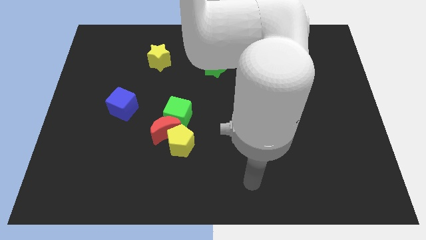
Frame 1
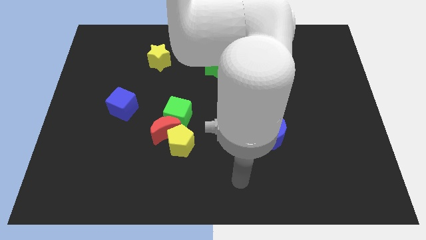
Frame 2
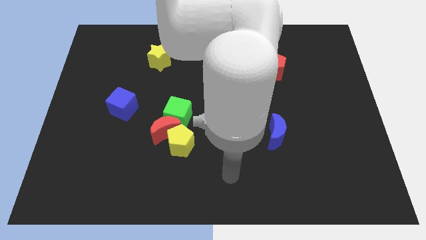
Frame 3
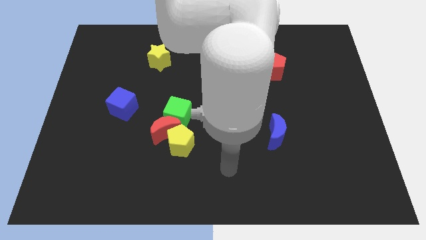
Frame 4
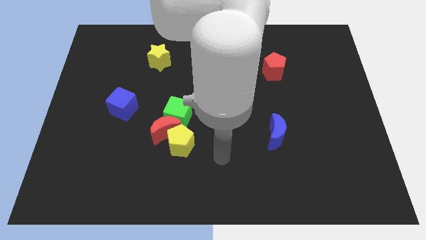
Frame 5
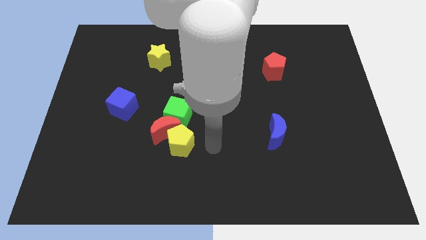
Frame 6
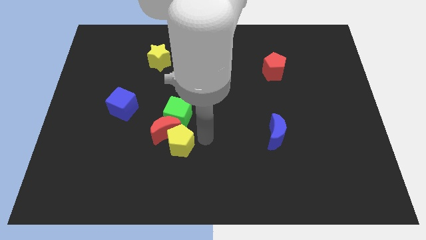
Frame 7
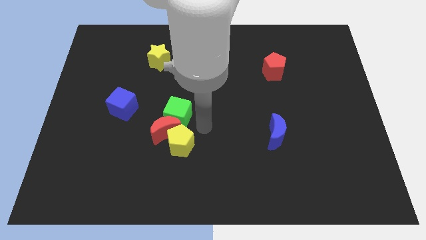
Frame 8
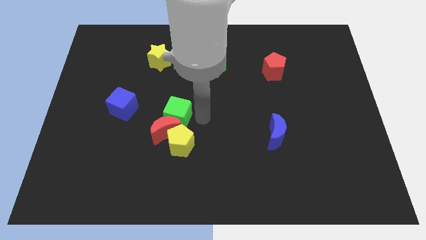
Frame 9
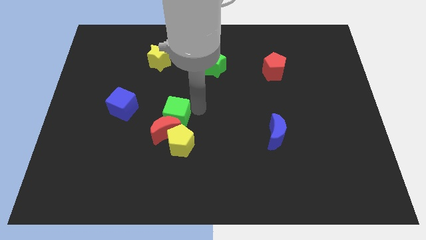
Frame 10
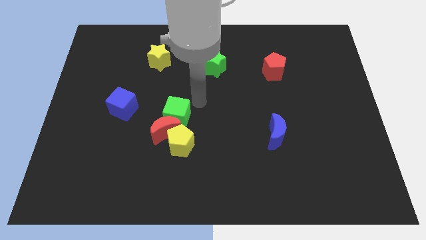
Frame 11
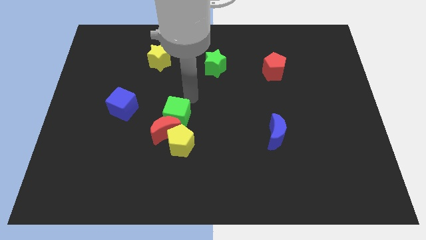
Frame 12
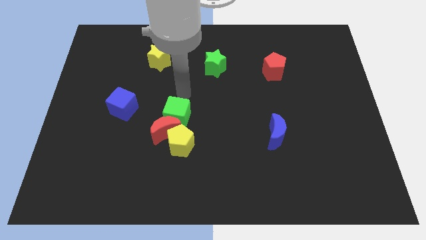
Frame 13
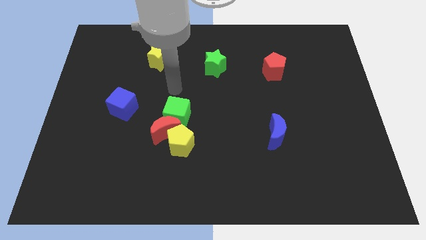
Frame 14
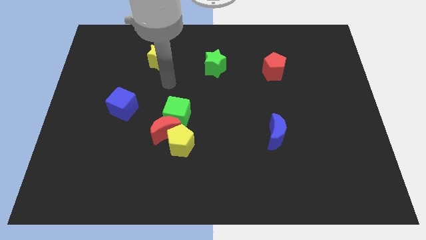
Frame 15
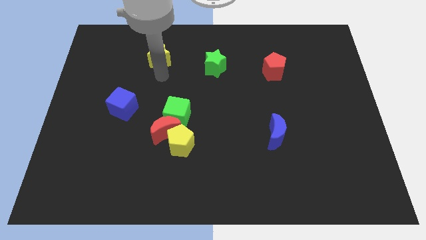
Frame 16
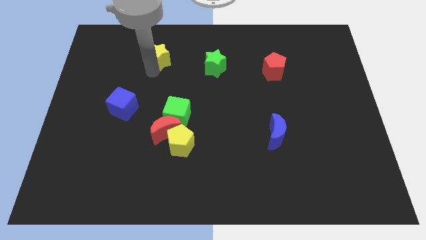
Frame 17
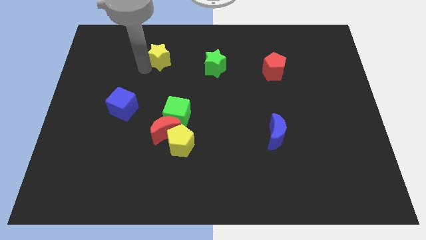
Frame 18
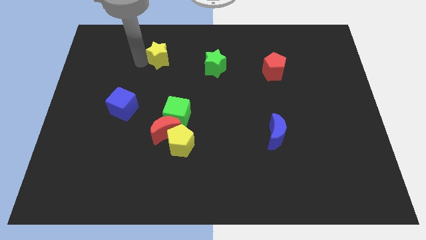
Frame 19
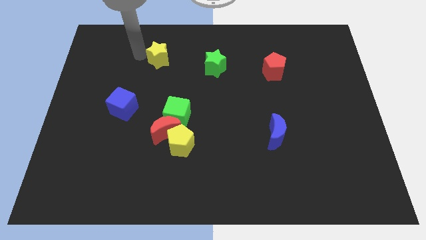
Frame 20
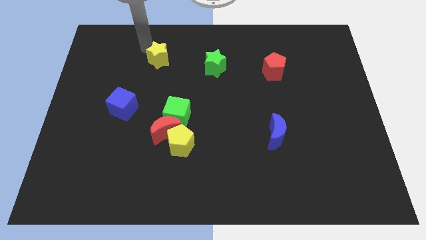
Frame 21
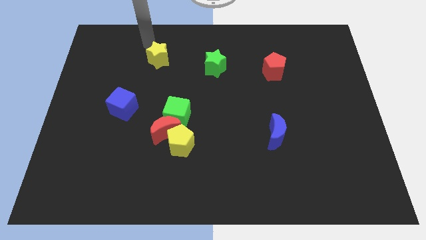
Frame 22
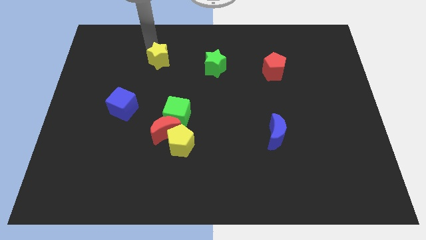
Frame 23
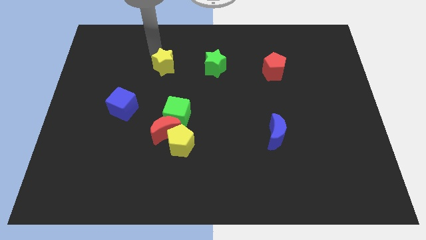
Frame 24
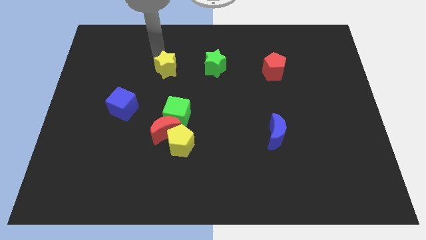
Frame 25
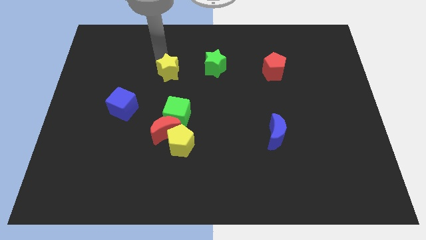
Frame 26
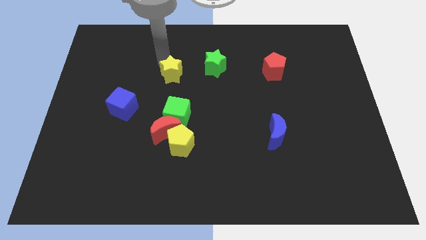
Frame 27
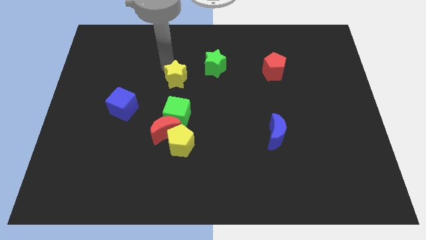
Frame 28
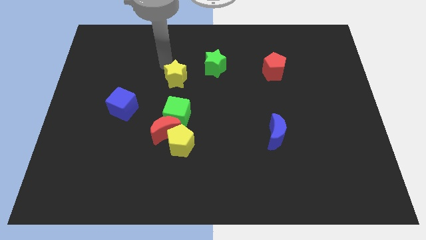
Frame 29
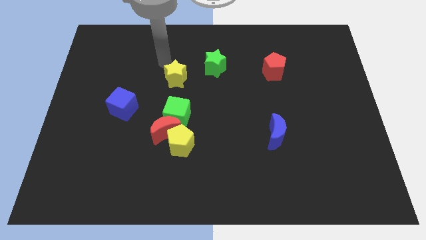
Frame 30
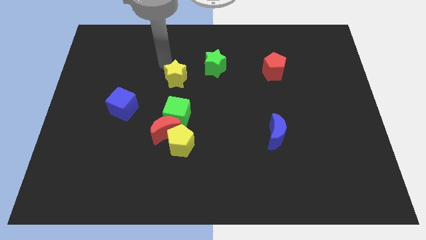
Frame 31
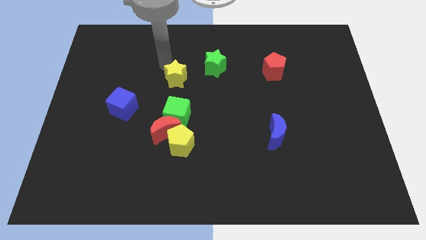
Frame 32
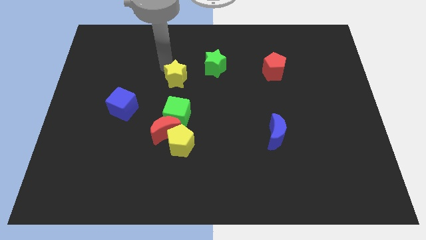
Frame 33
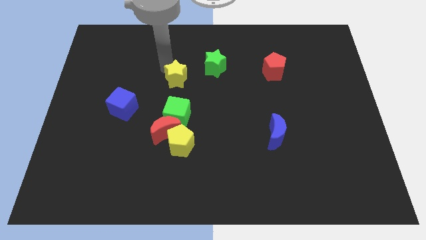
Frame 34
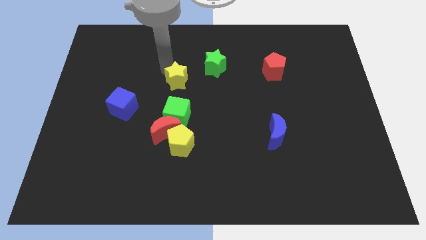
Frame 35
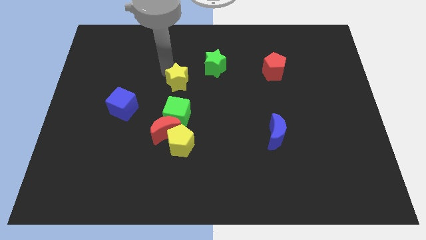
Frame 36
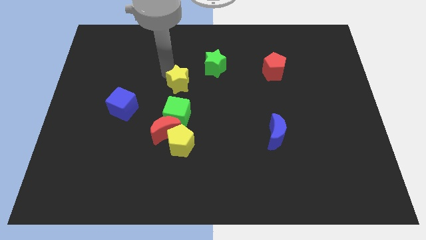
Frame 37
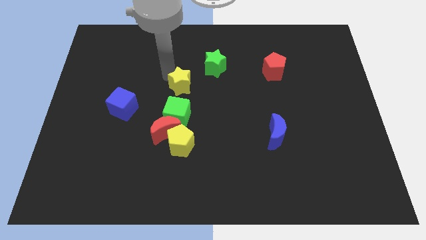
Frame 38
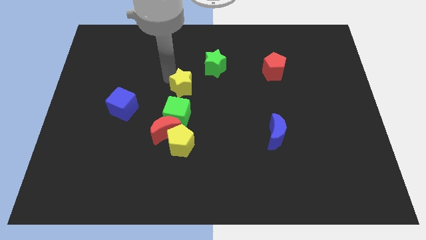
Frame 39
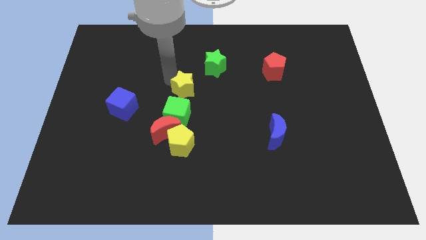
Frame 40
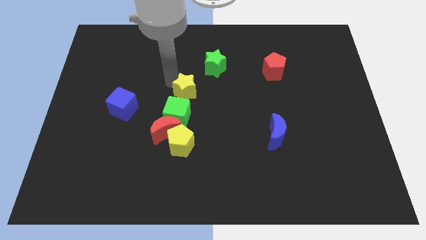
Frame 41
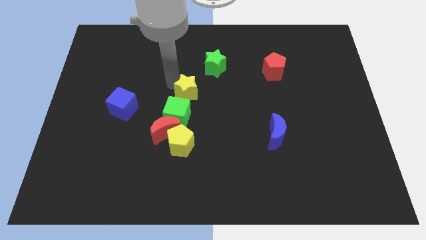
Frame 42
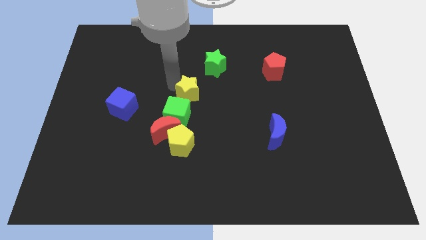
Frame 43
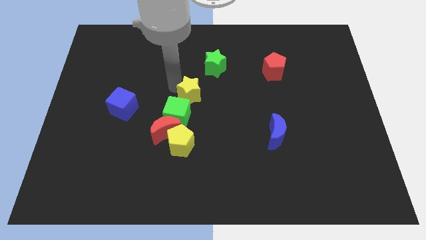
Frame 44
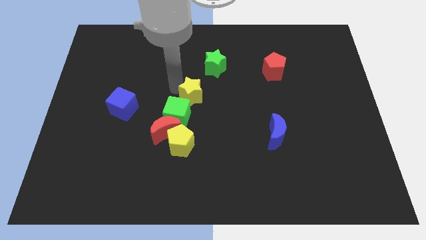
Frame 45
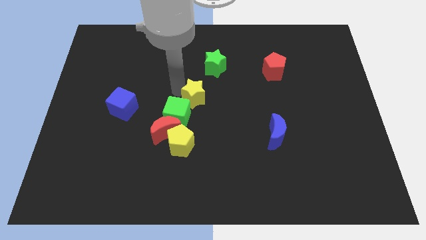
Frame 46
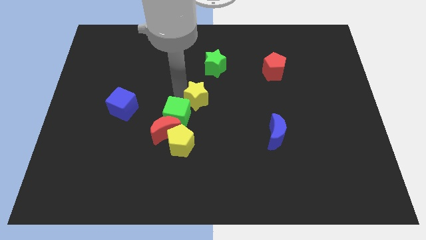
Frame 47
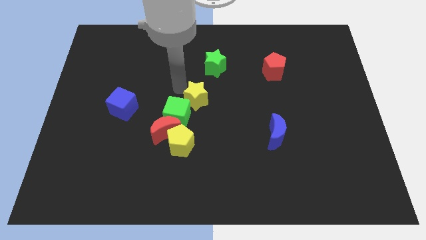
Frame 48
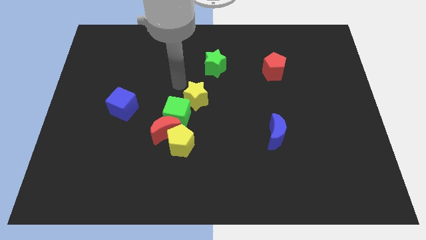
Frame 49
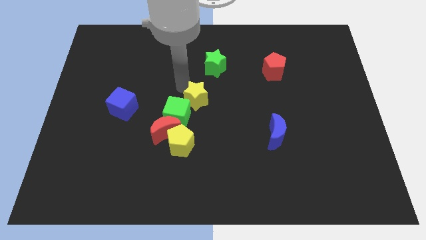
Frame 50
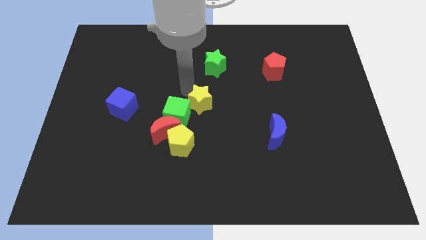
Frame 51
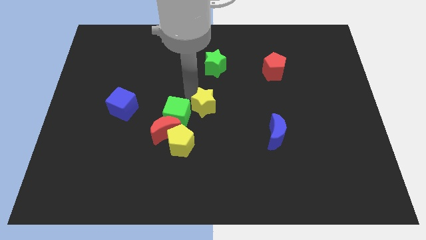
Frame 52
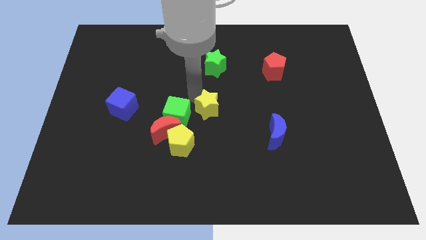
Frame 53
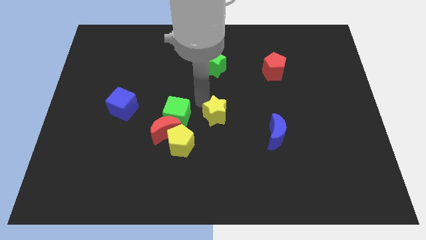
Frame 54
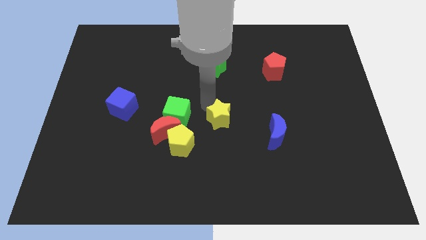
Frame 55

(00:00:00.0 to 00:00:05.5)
push the yellow star just left of the blue moon

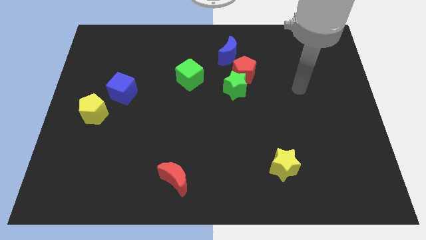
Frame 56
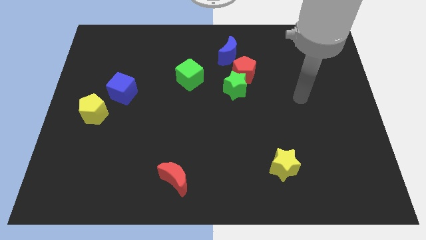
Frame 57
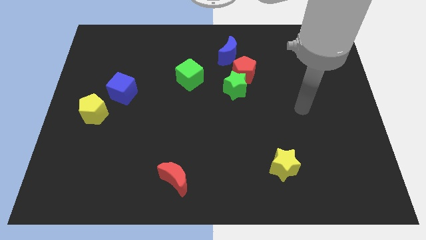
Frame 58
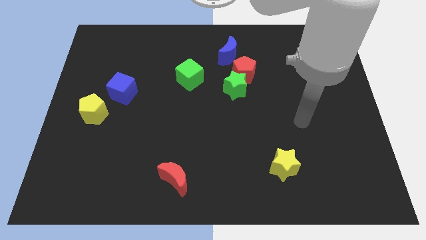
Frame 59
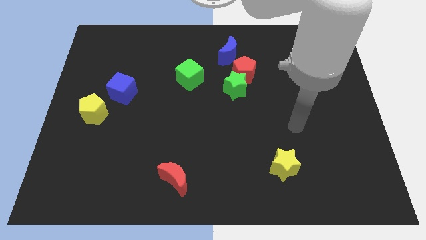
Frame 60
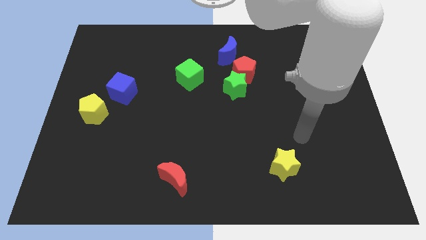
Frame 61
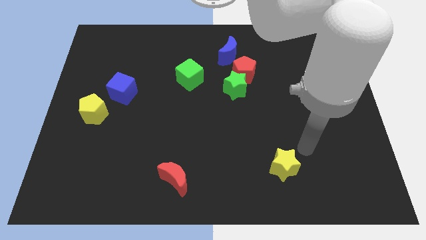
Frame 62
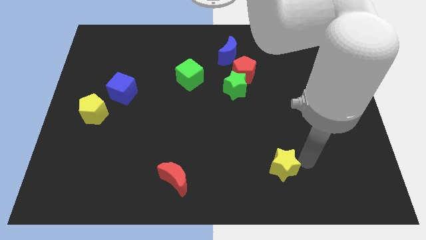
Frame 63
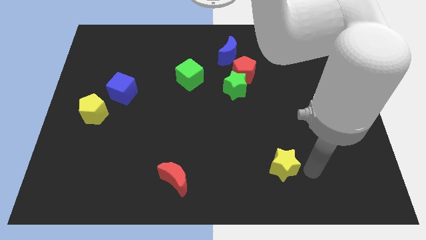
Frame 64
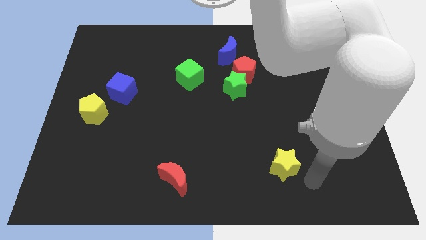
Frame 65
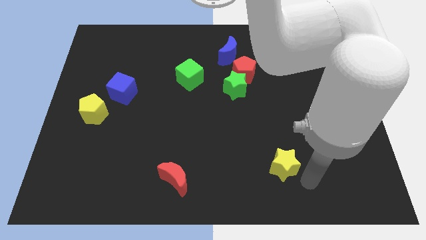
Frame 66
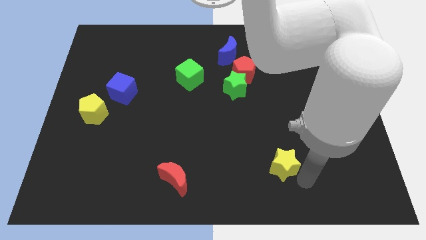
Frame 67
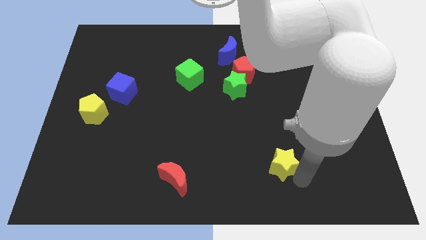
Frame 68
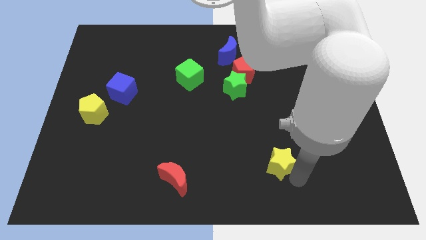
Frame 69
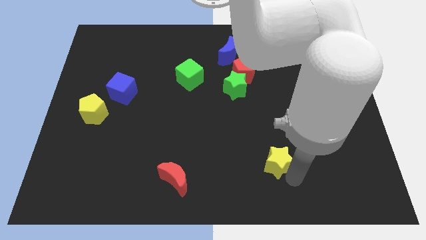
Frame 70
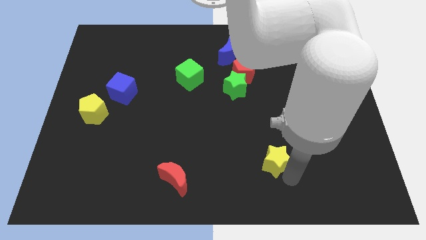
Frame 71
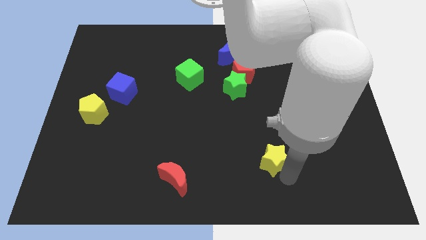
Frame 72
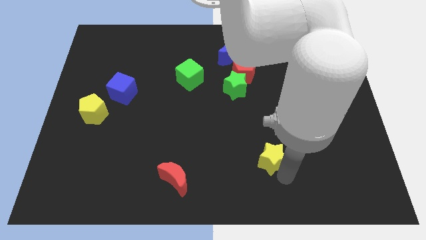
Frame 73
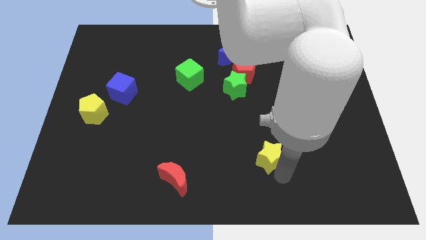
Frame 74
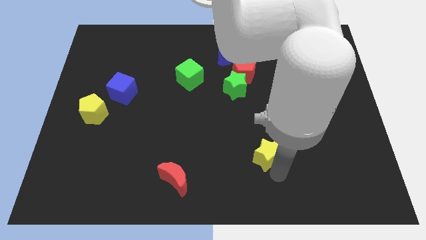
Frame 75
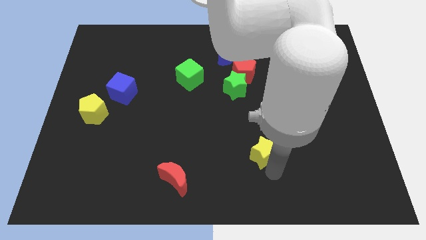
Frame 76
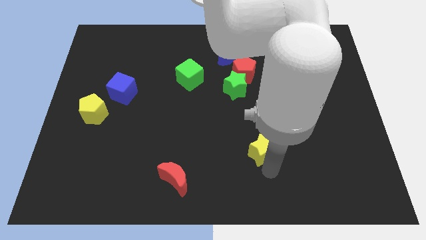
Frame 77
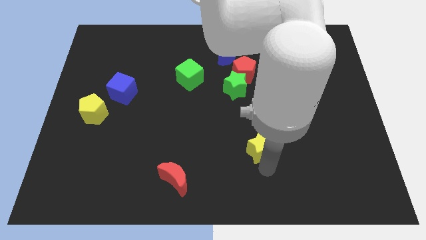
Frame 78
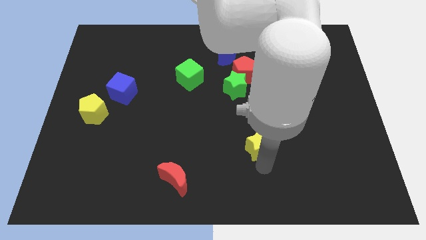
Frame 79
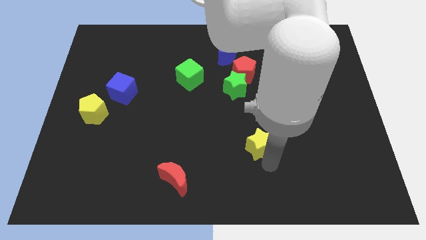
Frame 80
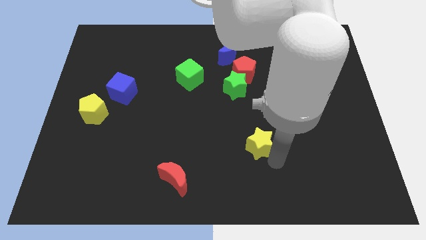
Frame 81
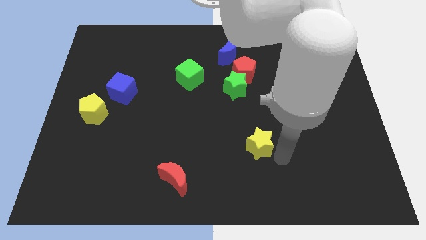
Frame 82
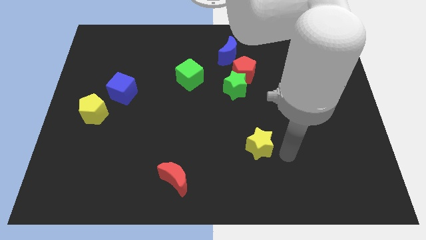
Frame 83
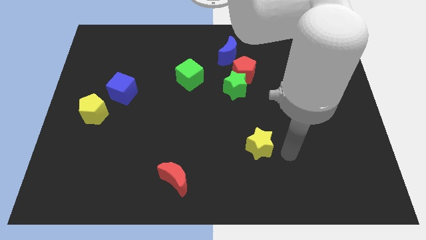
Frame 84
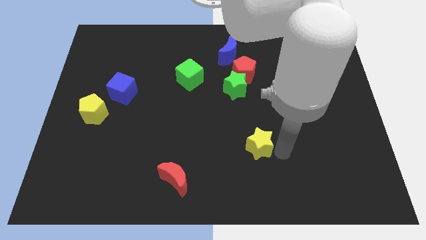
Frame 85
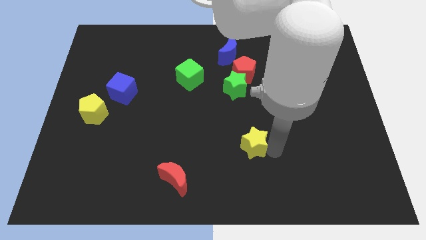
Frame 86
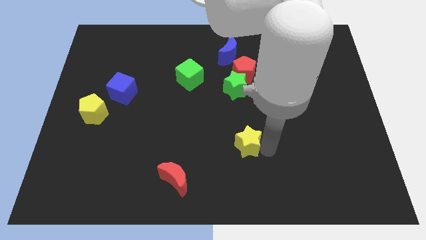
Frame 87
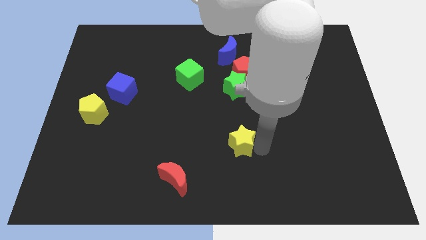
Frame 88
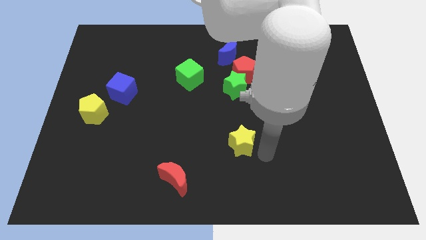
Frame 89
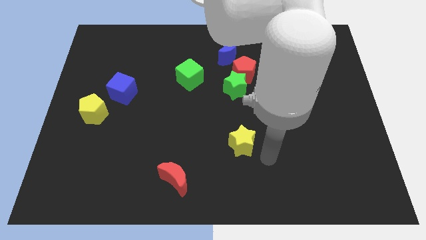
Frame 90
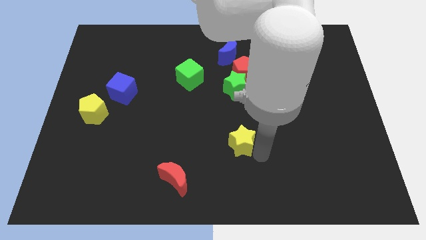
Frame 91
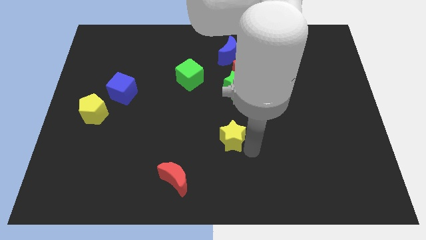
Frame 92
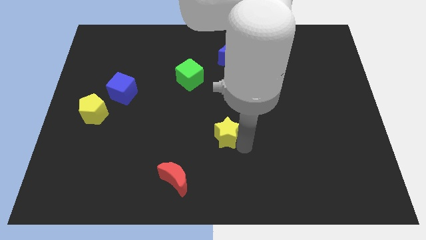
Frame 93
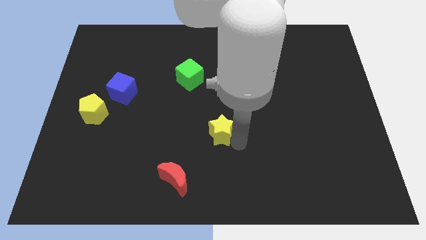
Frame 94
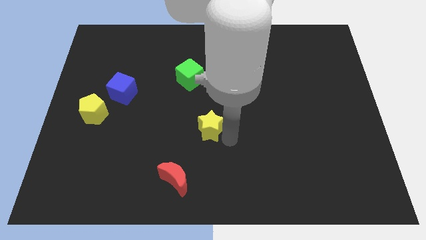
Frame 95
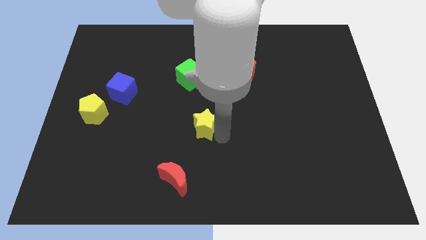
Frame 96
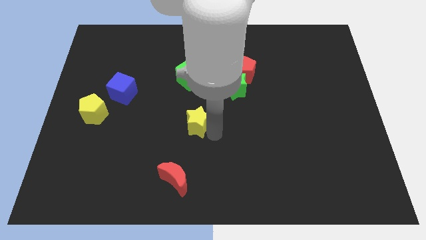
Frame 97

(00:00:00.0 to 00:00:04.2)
push the yellow star to the bottom side of the green cube
